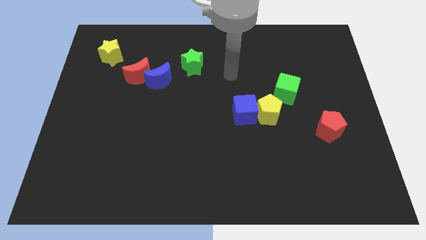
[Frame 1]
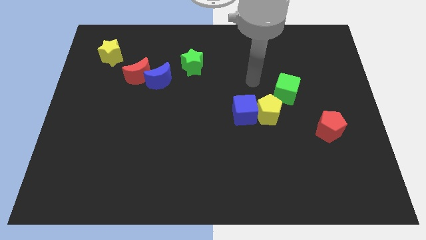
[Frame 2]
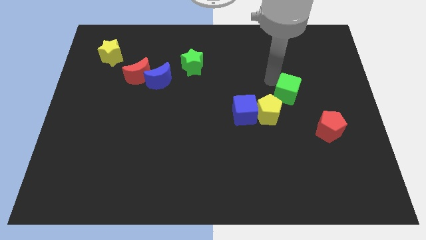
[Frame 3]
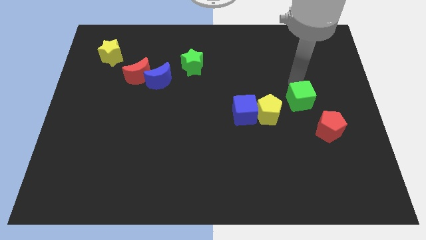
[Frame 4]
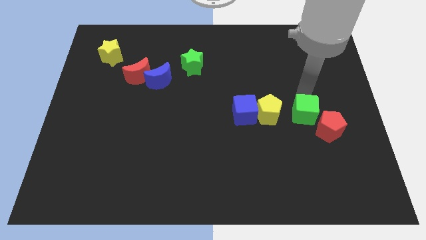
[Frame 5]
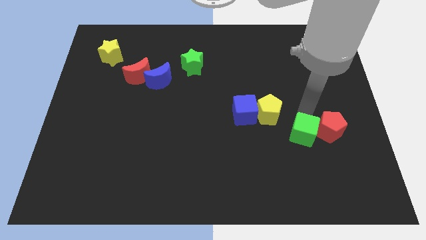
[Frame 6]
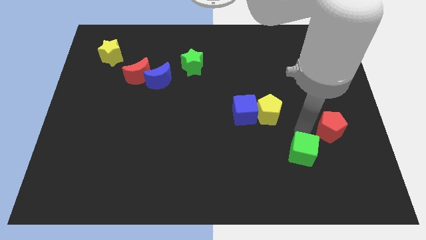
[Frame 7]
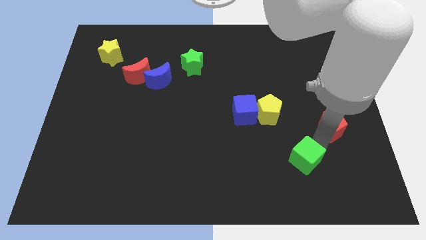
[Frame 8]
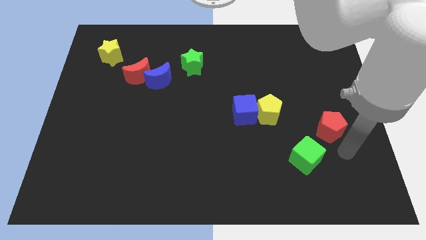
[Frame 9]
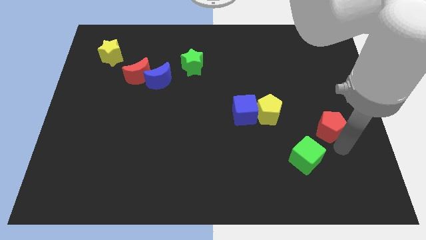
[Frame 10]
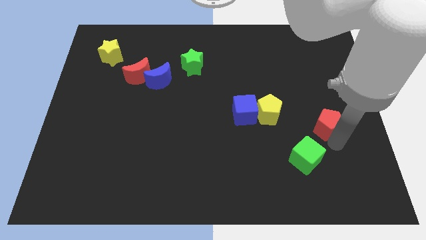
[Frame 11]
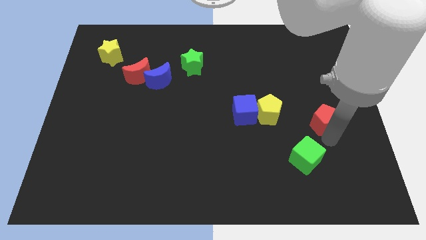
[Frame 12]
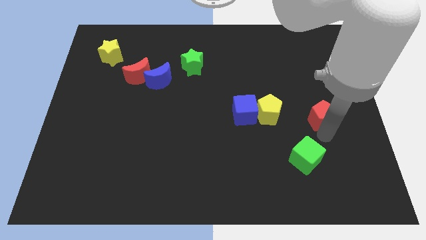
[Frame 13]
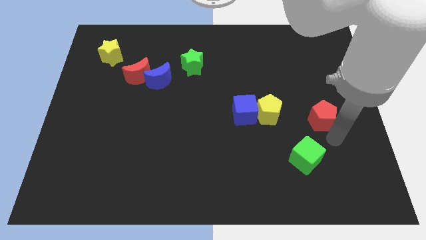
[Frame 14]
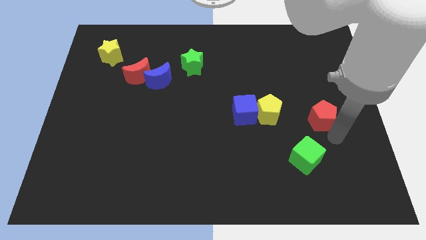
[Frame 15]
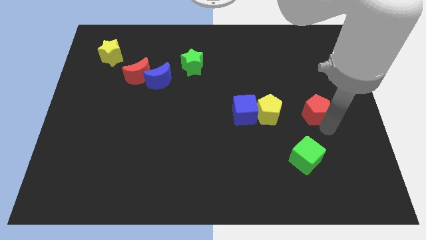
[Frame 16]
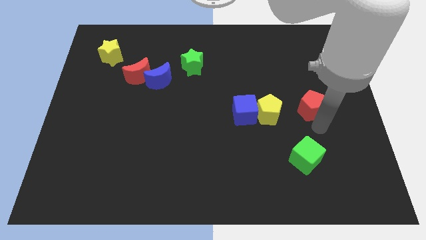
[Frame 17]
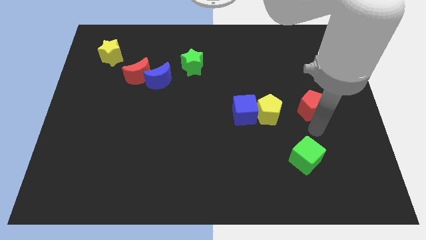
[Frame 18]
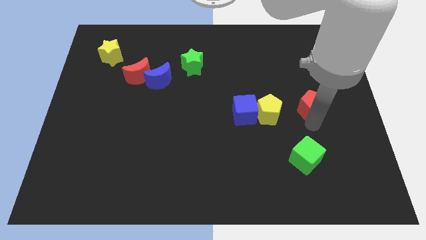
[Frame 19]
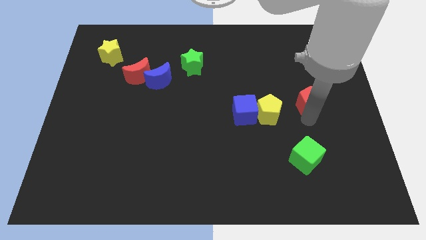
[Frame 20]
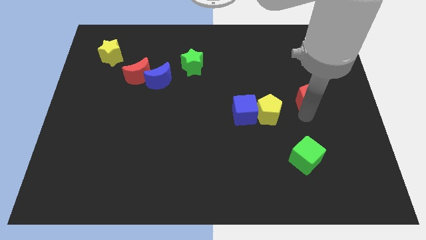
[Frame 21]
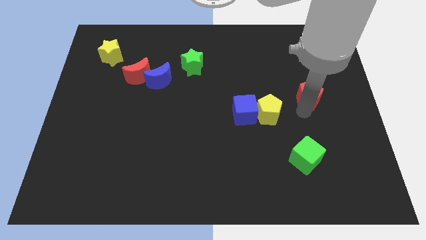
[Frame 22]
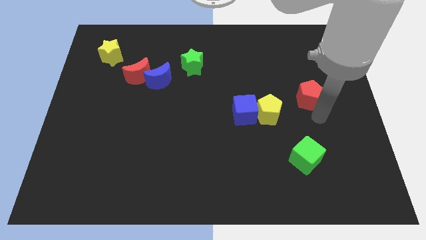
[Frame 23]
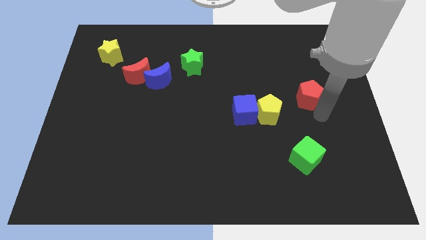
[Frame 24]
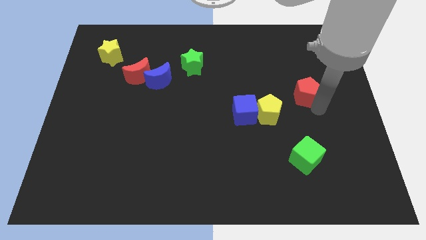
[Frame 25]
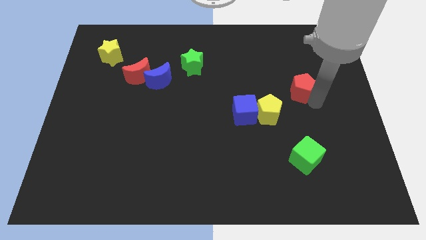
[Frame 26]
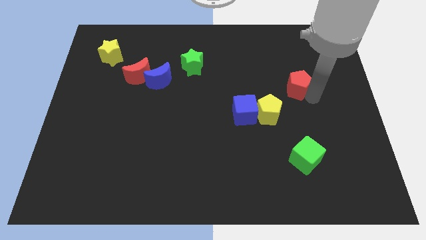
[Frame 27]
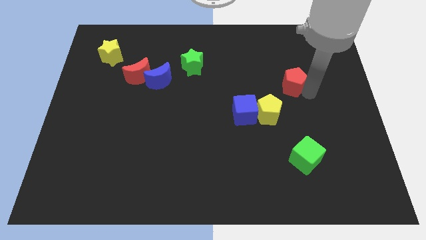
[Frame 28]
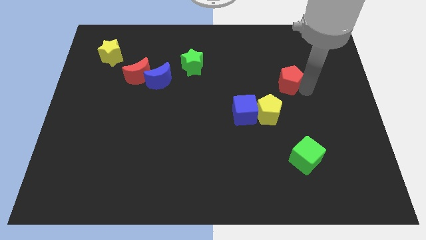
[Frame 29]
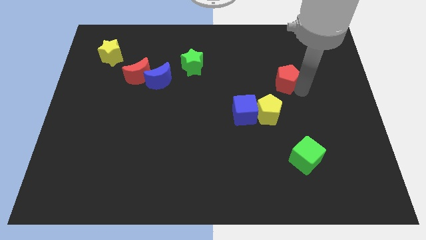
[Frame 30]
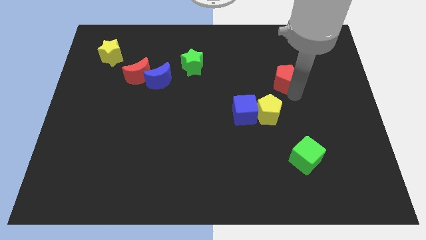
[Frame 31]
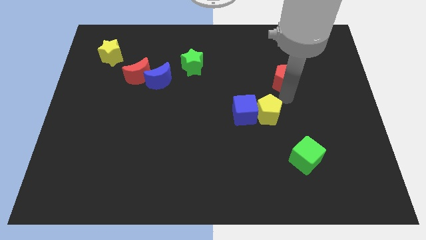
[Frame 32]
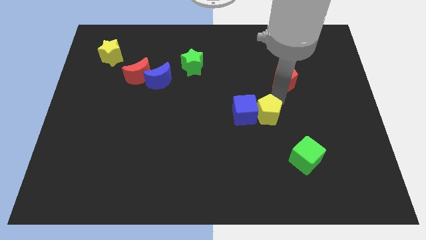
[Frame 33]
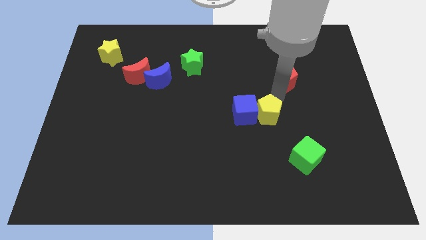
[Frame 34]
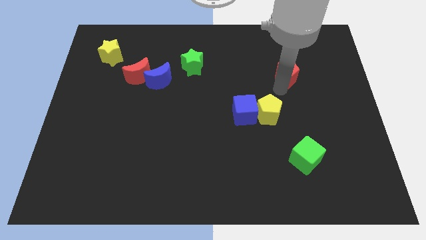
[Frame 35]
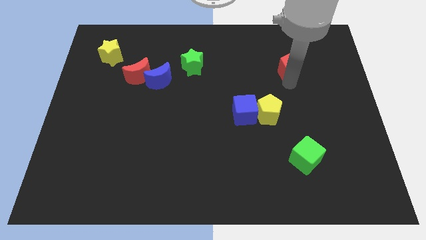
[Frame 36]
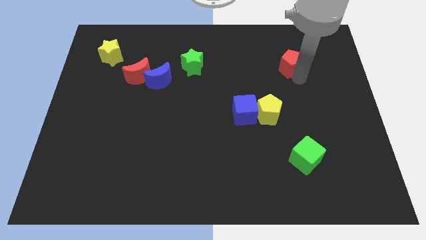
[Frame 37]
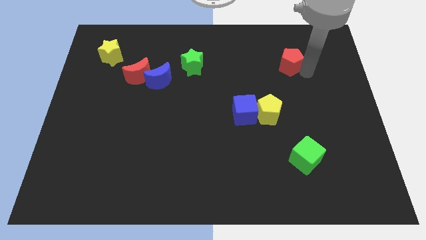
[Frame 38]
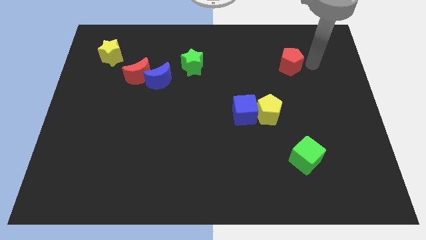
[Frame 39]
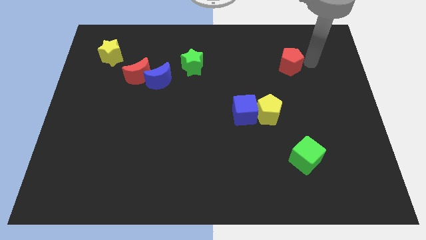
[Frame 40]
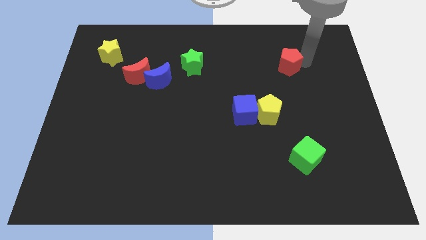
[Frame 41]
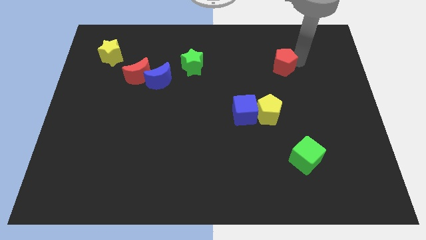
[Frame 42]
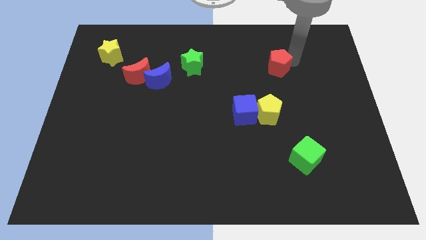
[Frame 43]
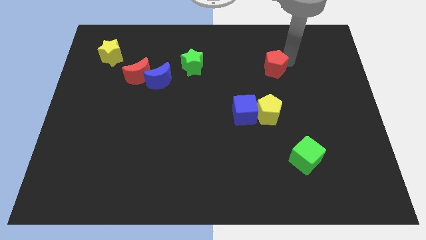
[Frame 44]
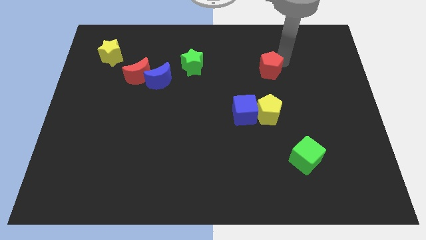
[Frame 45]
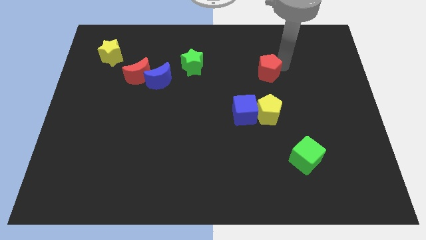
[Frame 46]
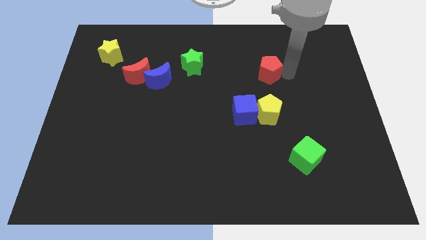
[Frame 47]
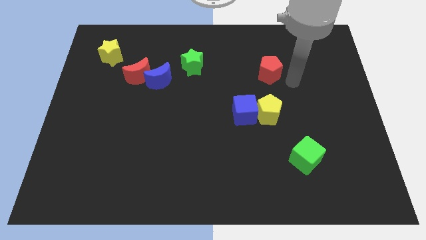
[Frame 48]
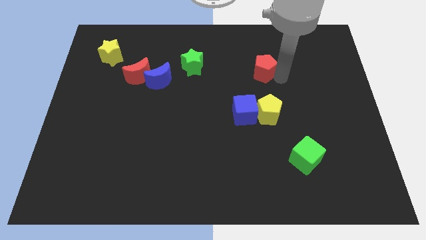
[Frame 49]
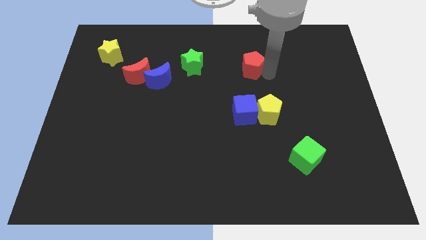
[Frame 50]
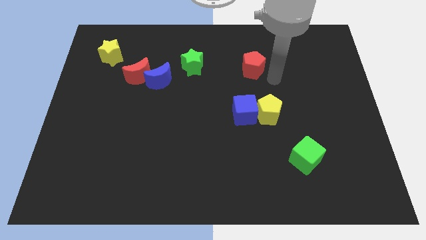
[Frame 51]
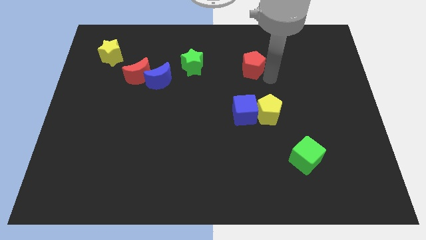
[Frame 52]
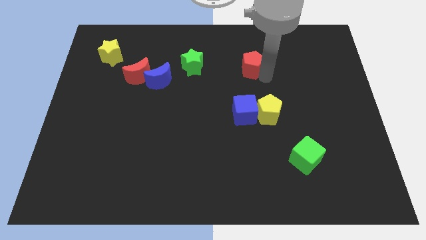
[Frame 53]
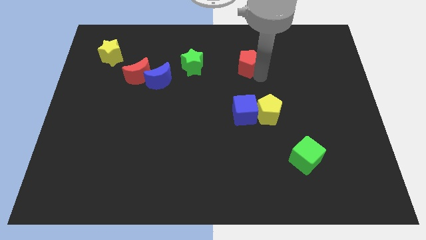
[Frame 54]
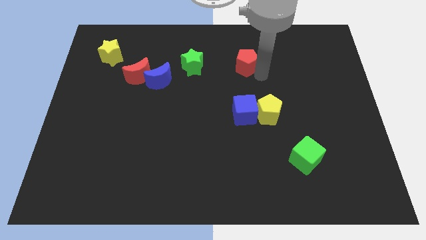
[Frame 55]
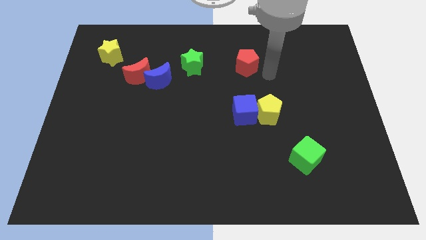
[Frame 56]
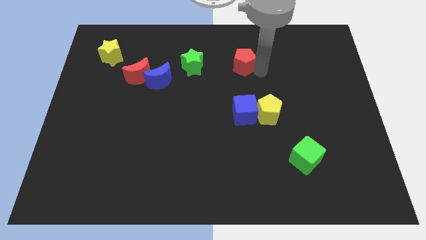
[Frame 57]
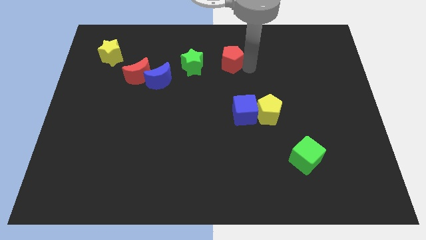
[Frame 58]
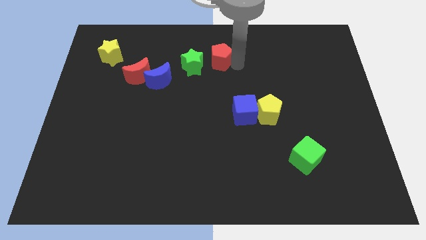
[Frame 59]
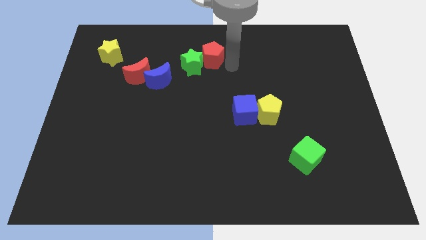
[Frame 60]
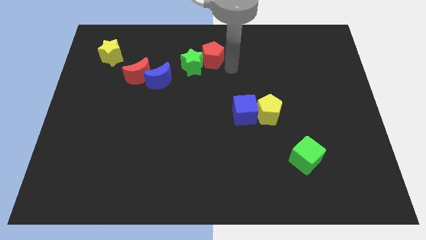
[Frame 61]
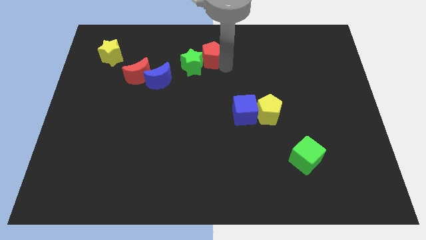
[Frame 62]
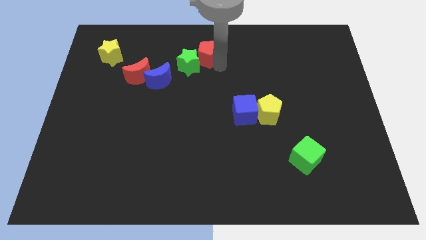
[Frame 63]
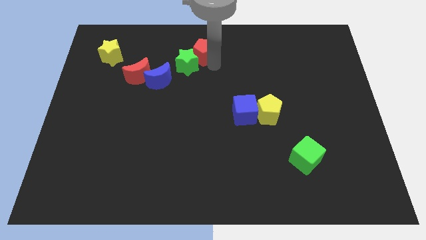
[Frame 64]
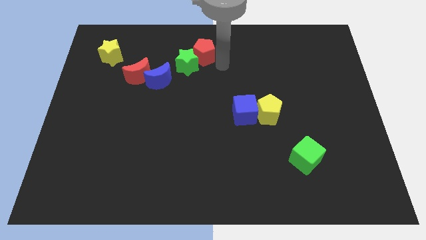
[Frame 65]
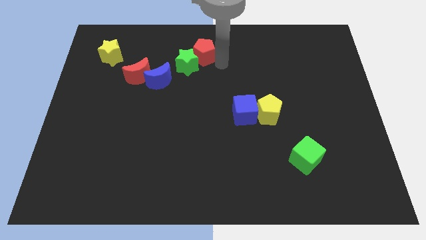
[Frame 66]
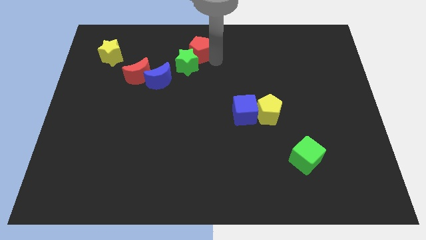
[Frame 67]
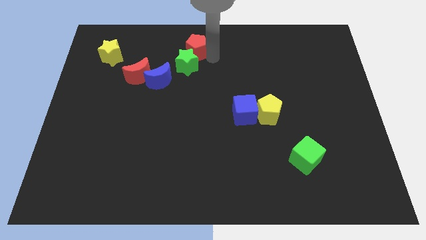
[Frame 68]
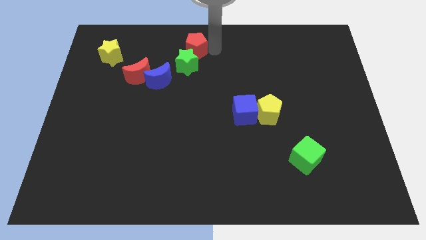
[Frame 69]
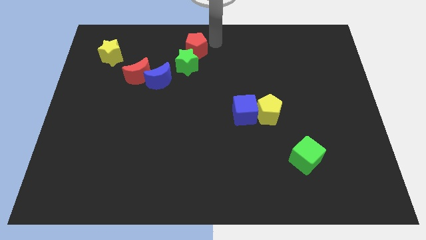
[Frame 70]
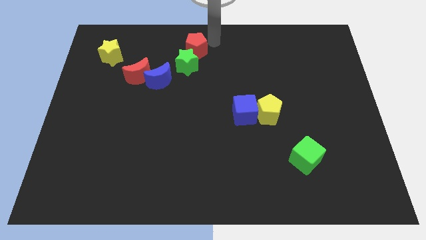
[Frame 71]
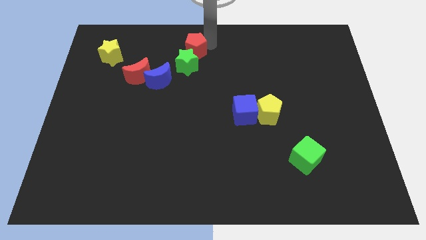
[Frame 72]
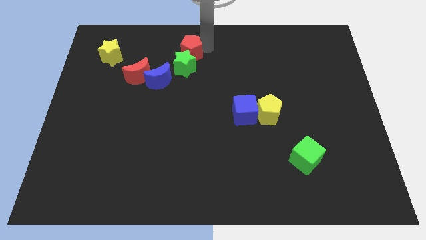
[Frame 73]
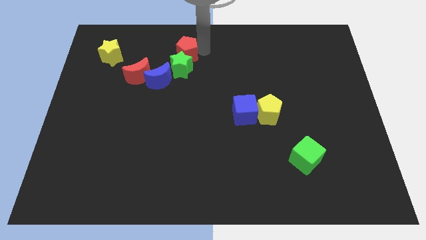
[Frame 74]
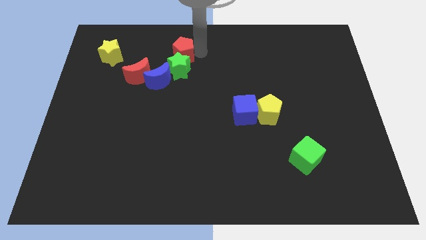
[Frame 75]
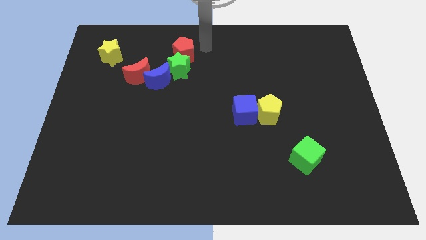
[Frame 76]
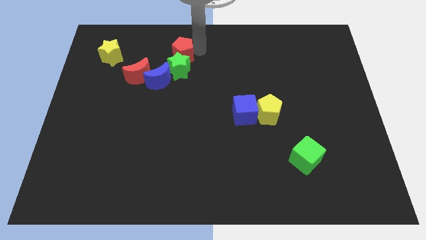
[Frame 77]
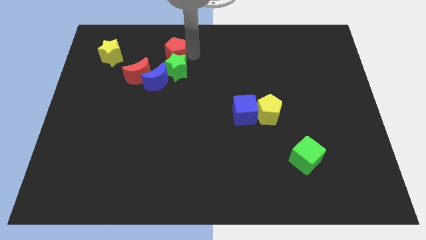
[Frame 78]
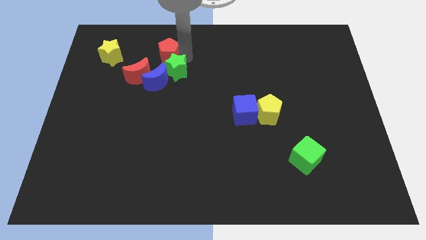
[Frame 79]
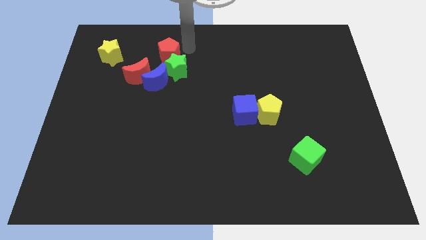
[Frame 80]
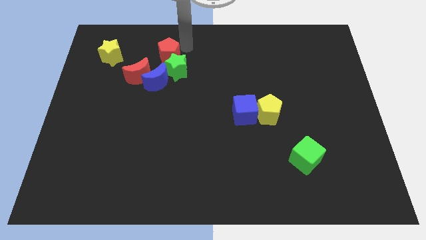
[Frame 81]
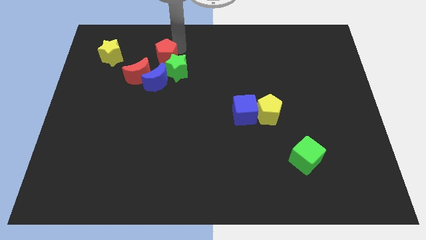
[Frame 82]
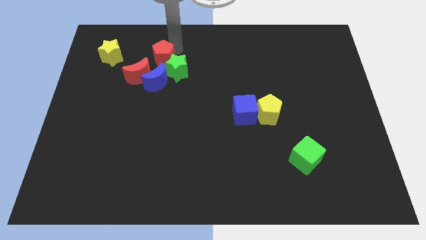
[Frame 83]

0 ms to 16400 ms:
put the red pentagon to the left side of the green star
